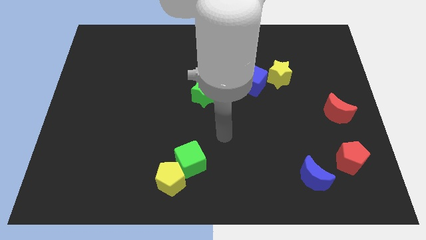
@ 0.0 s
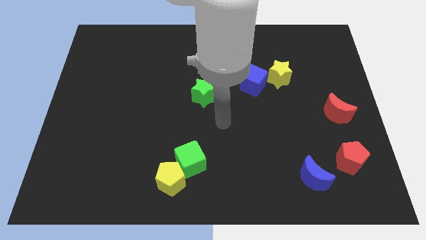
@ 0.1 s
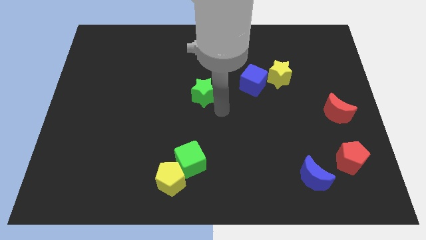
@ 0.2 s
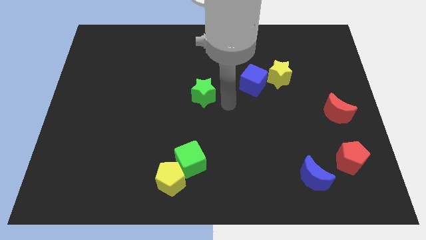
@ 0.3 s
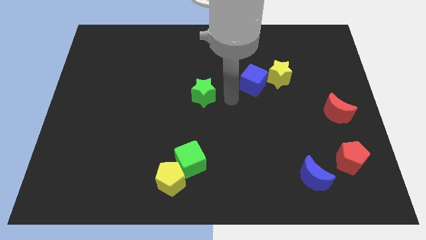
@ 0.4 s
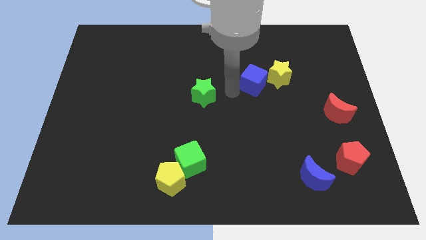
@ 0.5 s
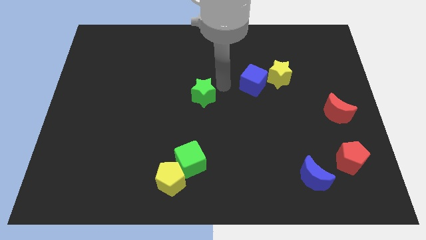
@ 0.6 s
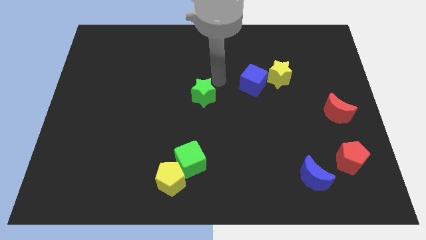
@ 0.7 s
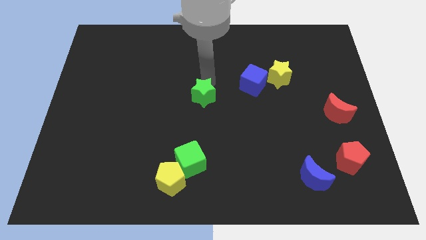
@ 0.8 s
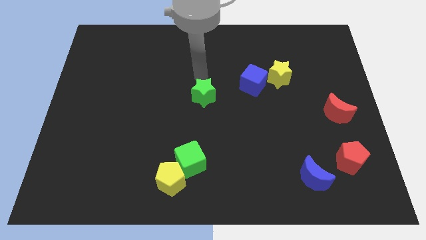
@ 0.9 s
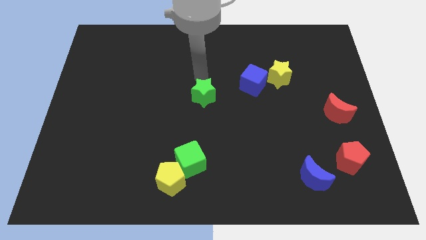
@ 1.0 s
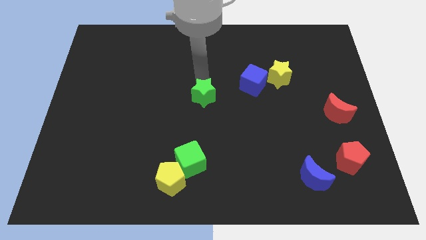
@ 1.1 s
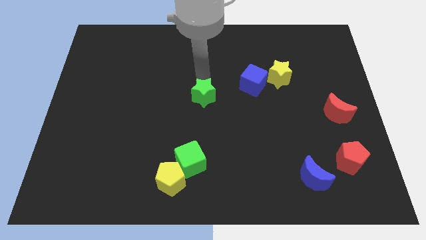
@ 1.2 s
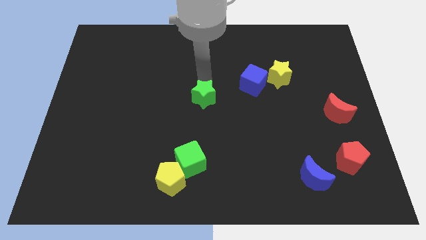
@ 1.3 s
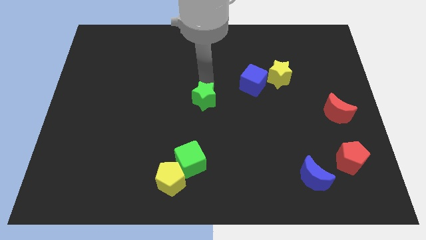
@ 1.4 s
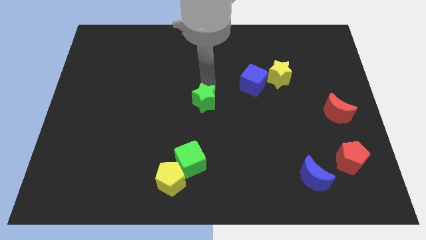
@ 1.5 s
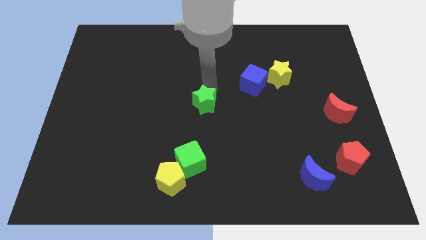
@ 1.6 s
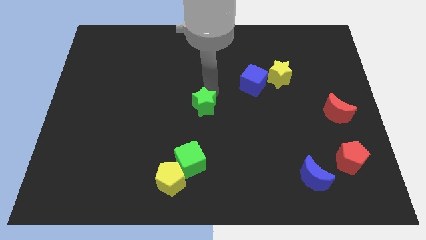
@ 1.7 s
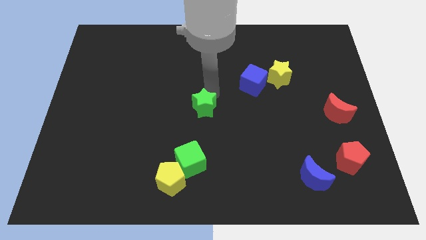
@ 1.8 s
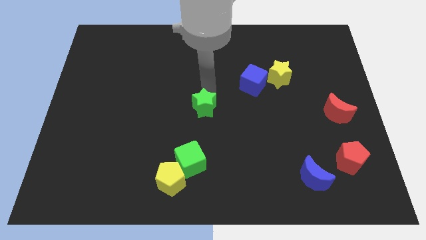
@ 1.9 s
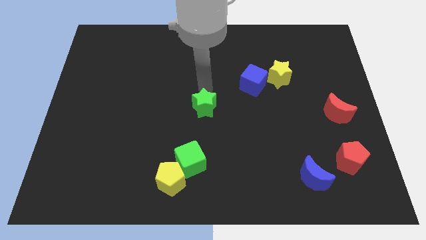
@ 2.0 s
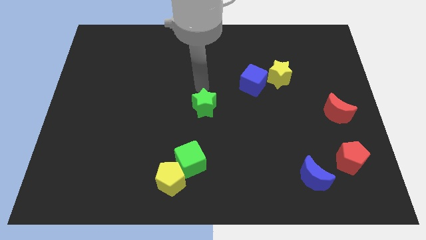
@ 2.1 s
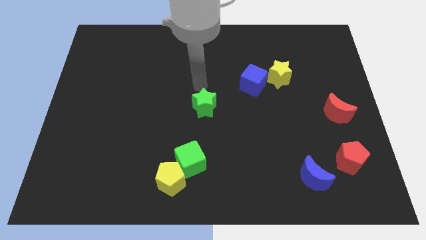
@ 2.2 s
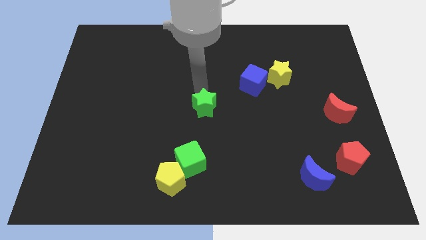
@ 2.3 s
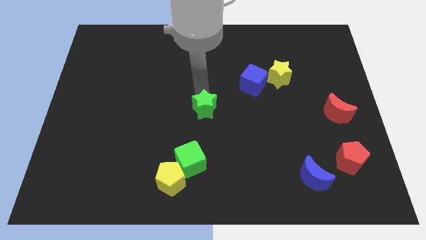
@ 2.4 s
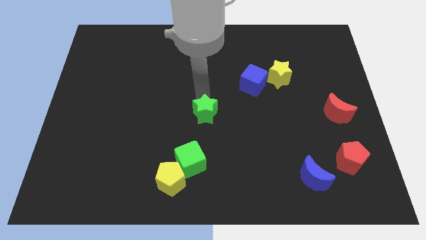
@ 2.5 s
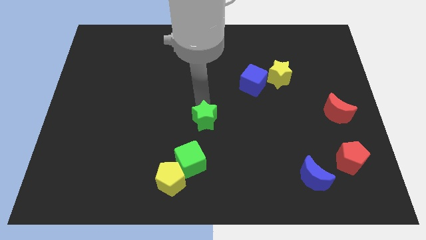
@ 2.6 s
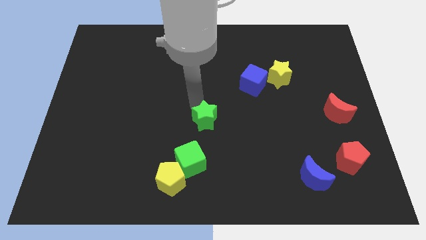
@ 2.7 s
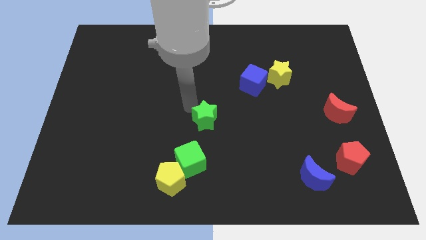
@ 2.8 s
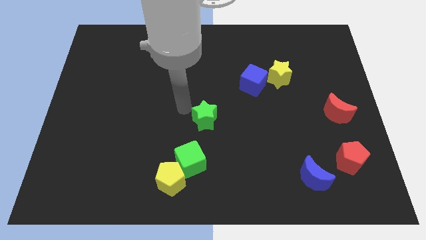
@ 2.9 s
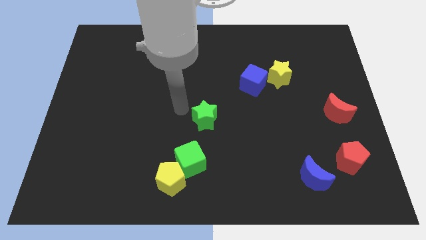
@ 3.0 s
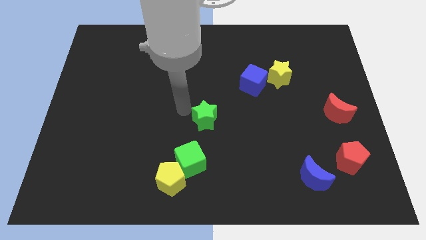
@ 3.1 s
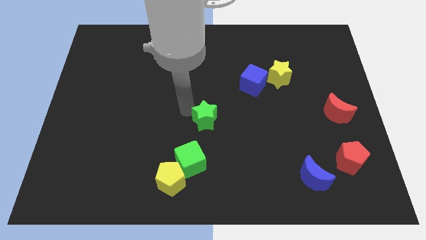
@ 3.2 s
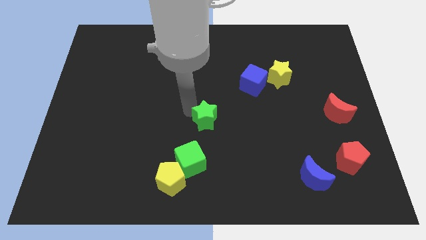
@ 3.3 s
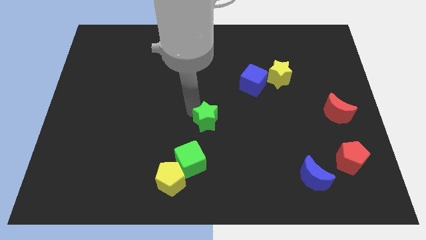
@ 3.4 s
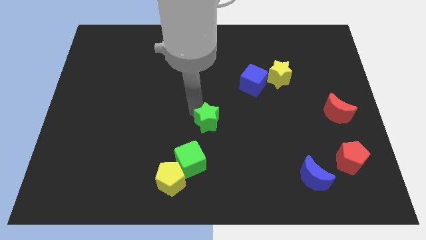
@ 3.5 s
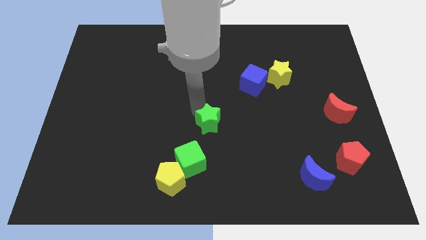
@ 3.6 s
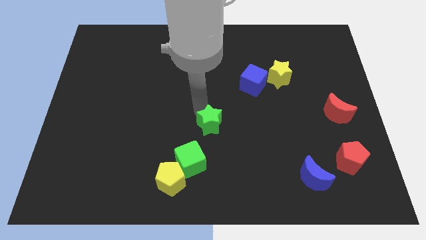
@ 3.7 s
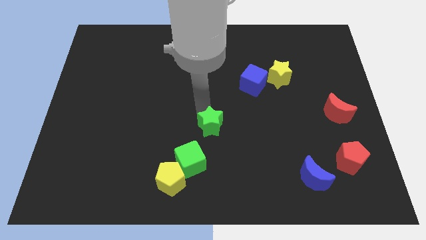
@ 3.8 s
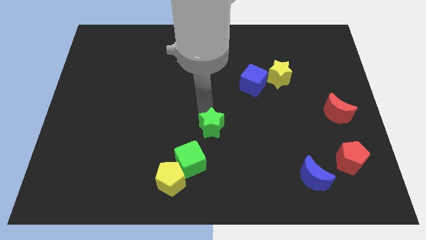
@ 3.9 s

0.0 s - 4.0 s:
slide the green star a little bit down and then right

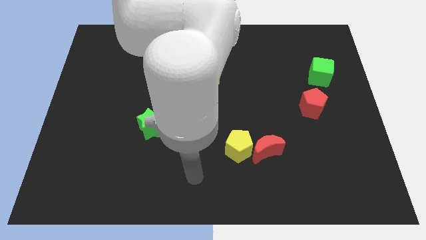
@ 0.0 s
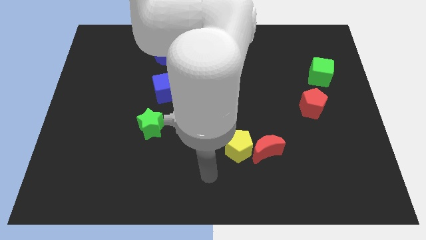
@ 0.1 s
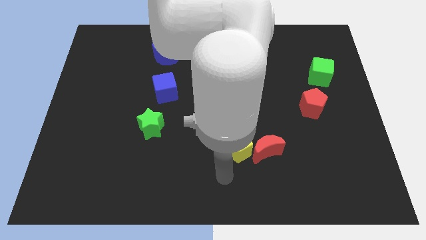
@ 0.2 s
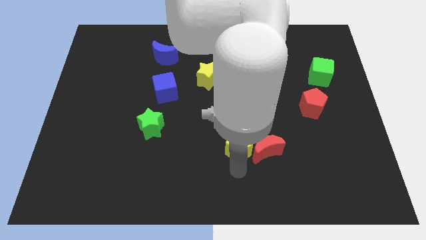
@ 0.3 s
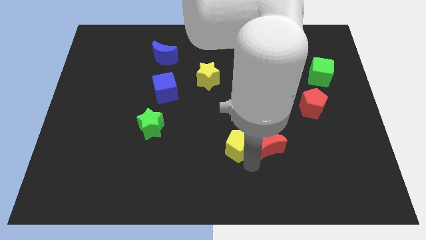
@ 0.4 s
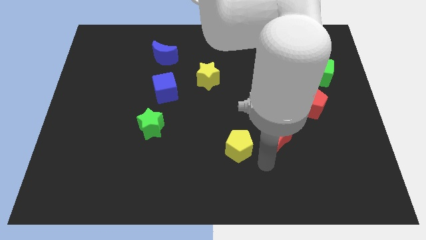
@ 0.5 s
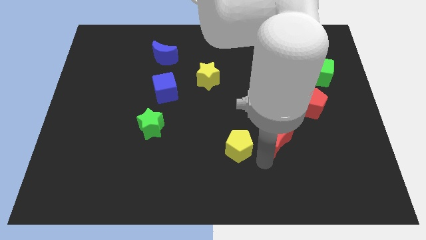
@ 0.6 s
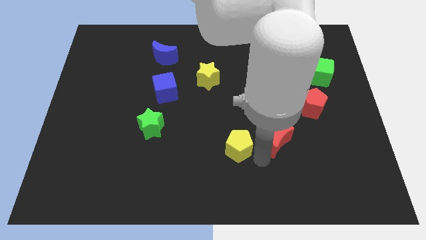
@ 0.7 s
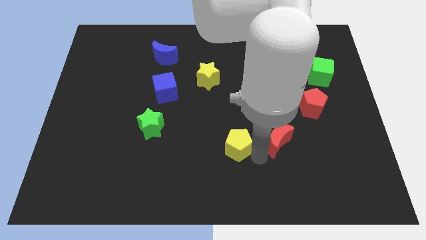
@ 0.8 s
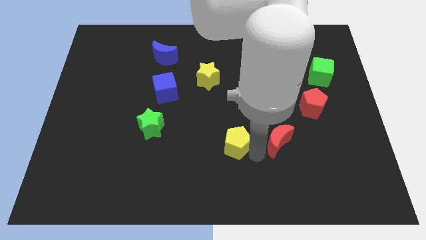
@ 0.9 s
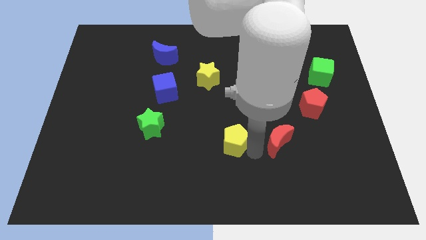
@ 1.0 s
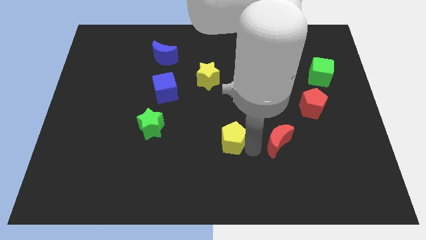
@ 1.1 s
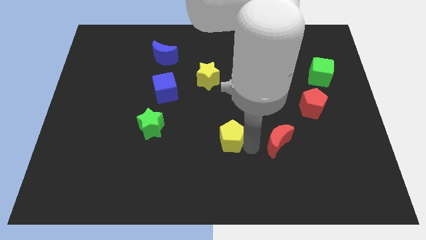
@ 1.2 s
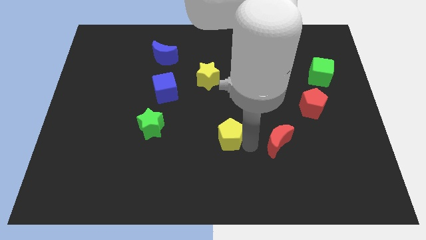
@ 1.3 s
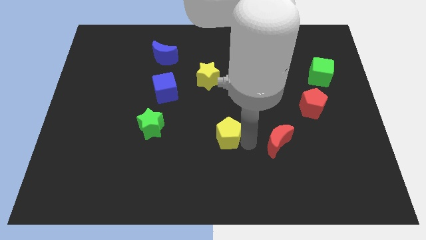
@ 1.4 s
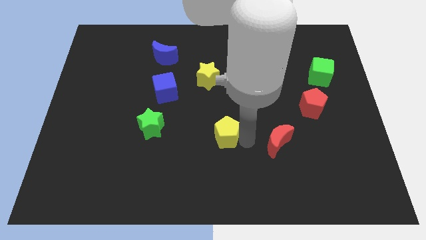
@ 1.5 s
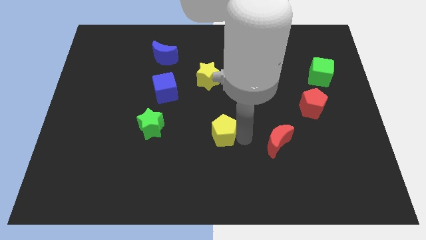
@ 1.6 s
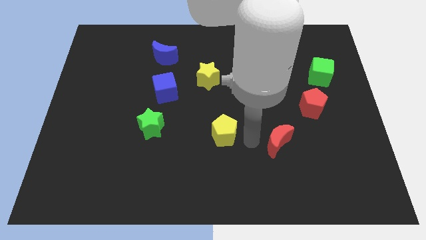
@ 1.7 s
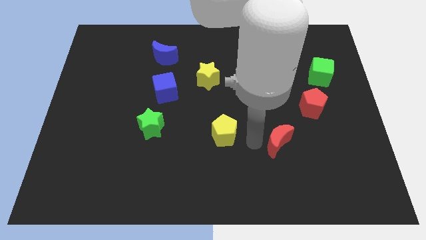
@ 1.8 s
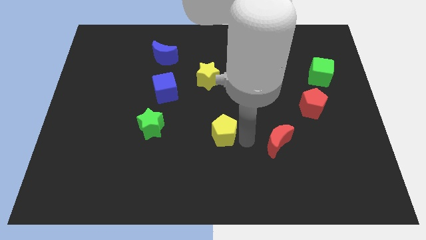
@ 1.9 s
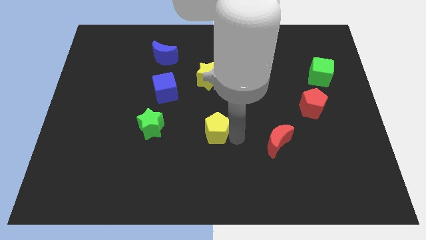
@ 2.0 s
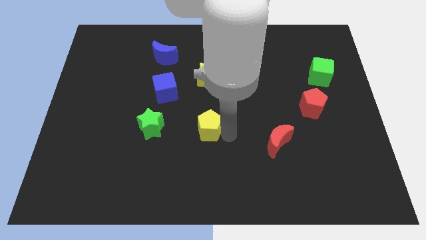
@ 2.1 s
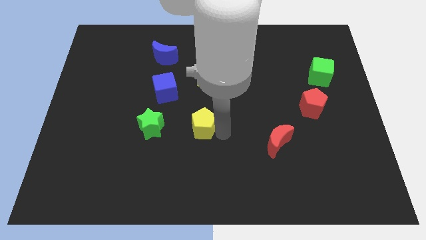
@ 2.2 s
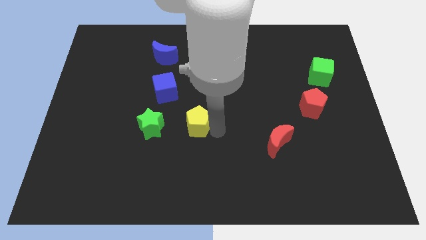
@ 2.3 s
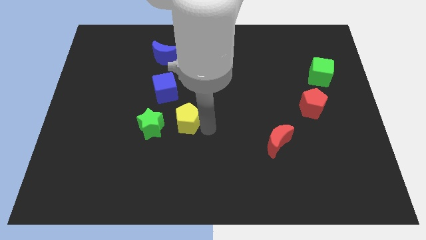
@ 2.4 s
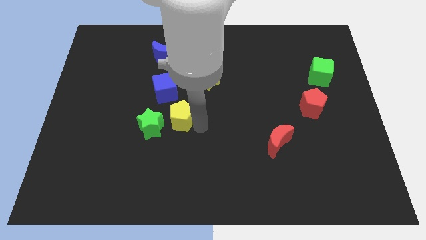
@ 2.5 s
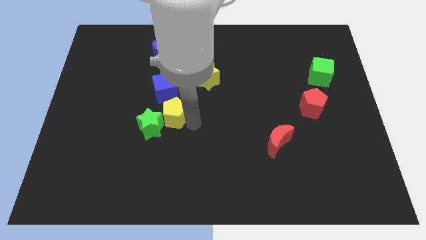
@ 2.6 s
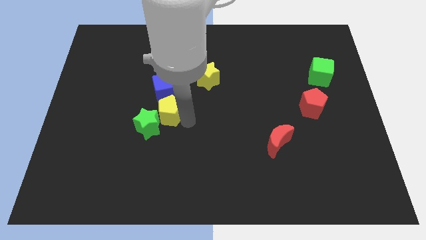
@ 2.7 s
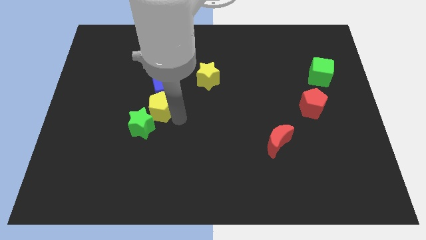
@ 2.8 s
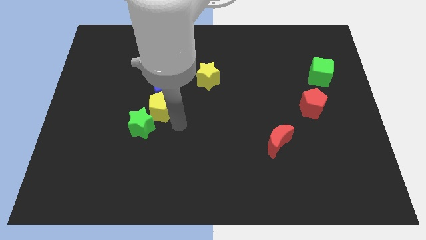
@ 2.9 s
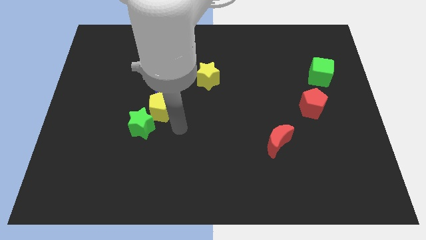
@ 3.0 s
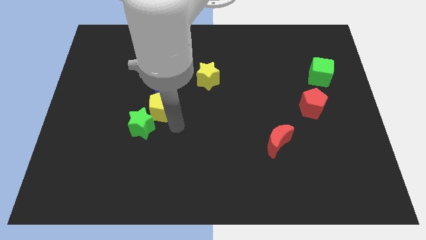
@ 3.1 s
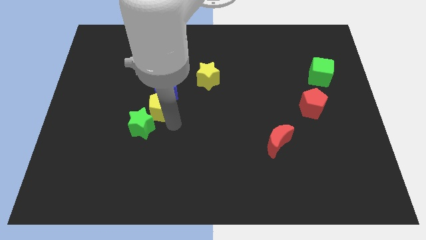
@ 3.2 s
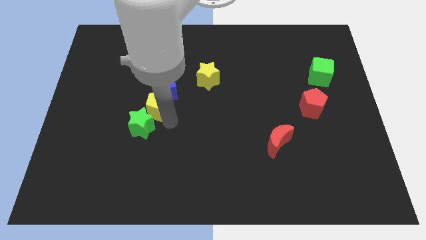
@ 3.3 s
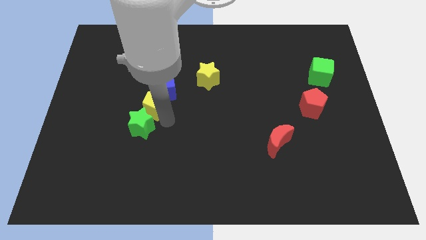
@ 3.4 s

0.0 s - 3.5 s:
move the yellow pentagon upwards and left
